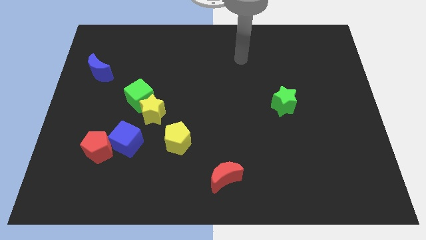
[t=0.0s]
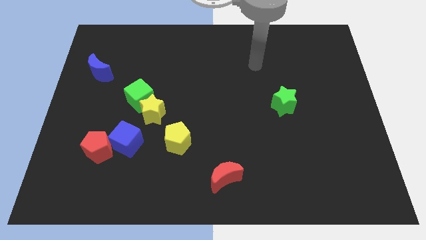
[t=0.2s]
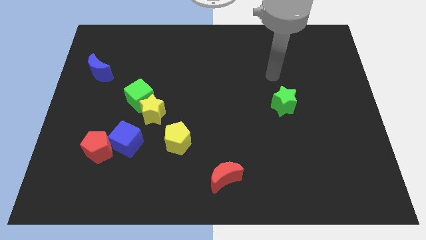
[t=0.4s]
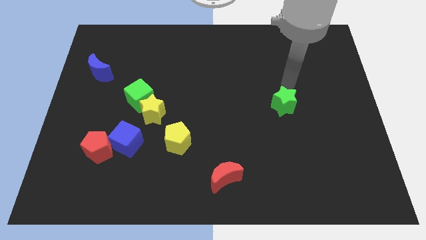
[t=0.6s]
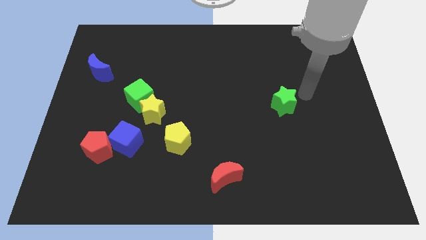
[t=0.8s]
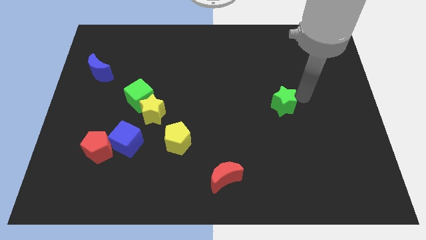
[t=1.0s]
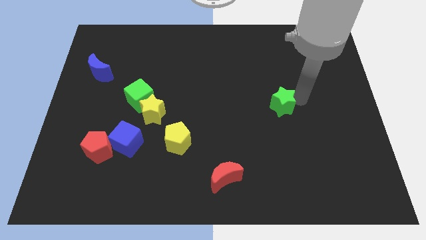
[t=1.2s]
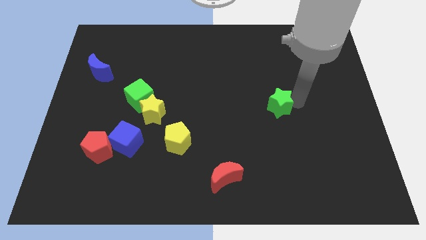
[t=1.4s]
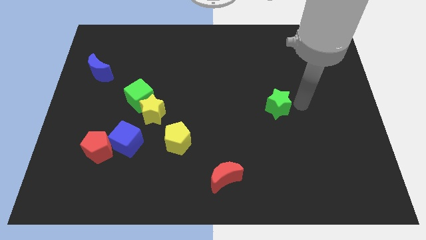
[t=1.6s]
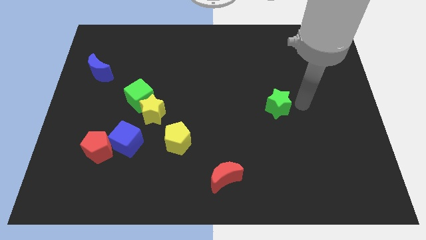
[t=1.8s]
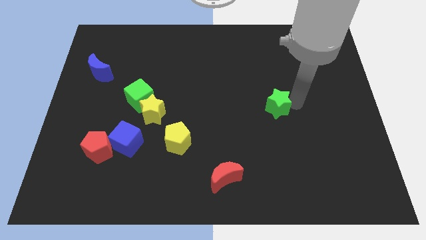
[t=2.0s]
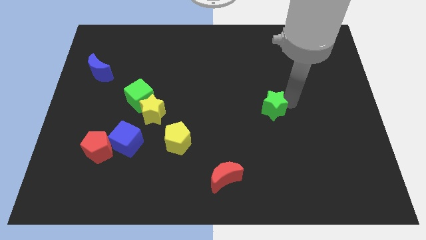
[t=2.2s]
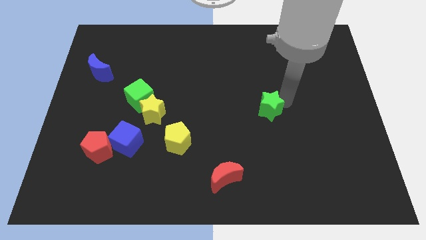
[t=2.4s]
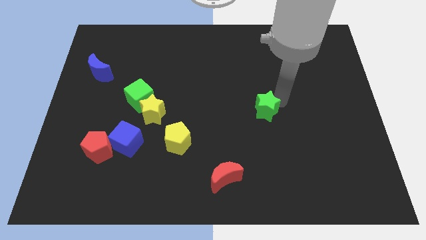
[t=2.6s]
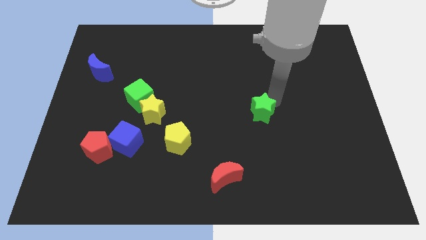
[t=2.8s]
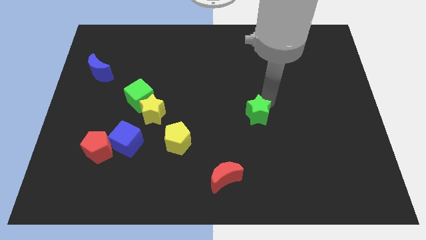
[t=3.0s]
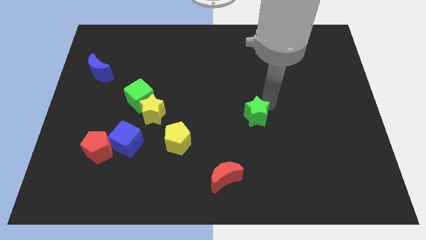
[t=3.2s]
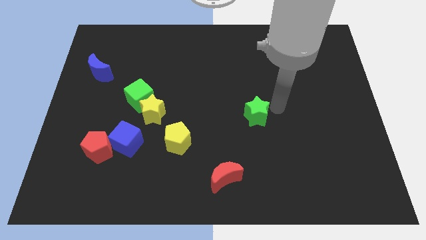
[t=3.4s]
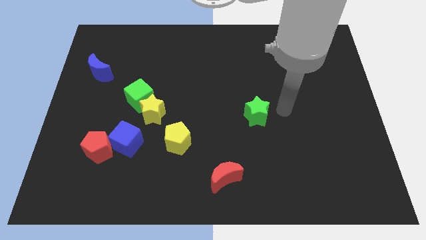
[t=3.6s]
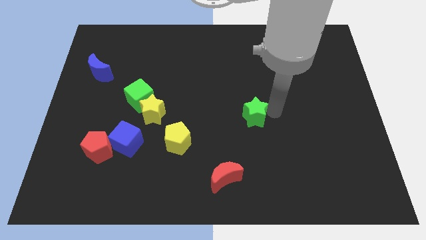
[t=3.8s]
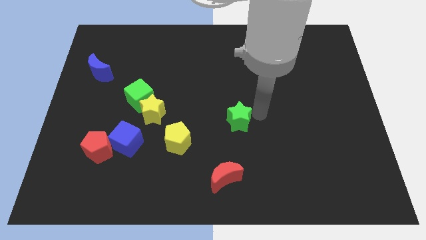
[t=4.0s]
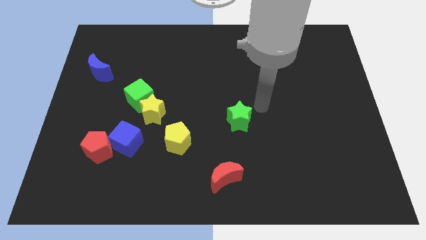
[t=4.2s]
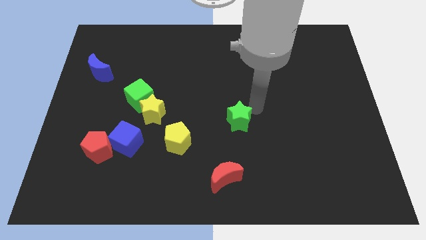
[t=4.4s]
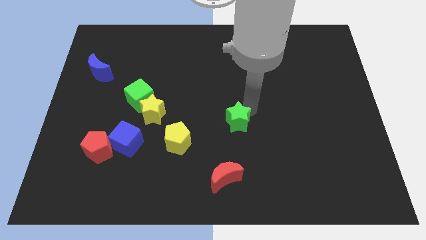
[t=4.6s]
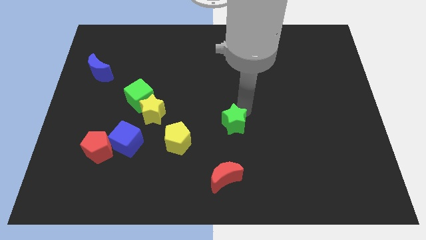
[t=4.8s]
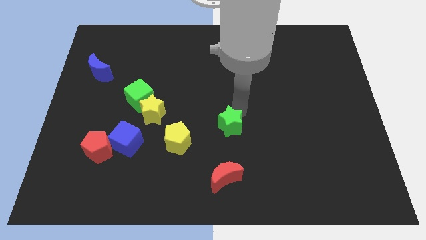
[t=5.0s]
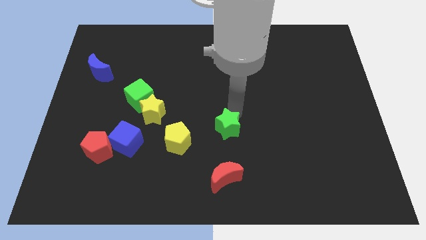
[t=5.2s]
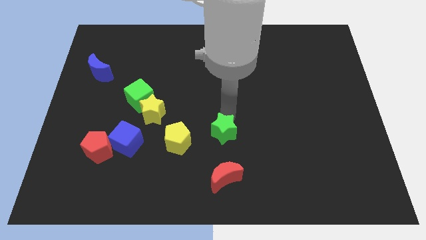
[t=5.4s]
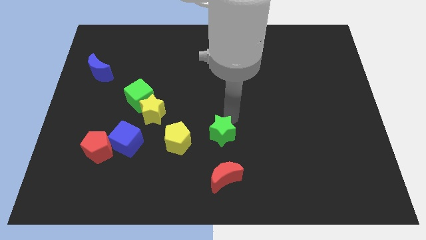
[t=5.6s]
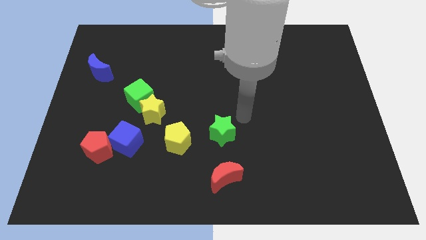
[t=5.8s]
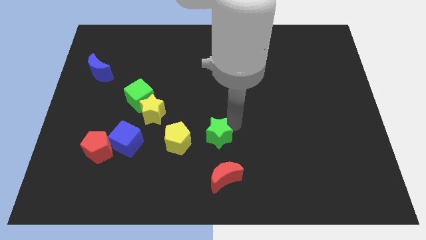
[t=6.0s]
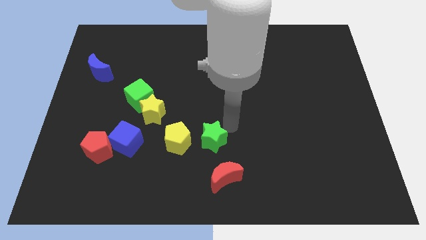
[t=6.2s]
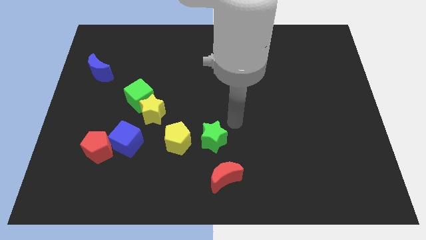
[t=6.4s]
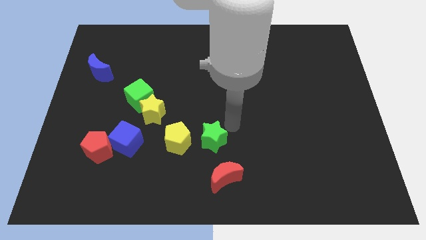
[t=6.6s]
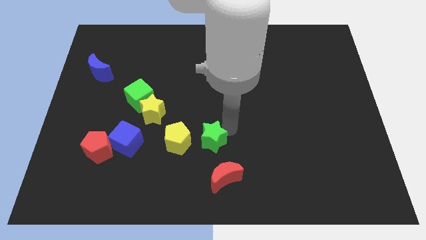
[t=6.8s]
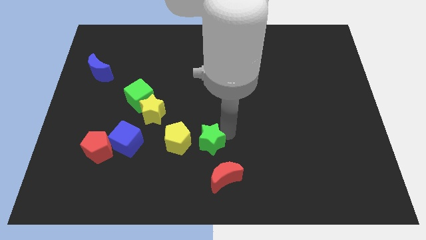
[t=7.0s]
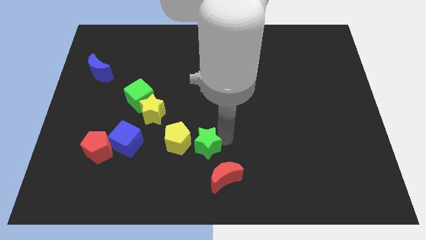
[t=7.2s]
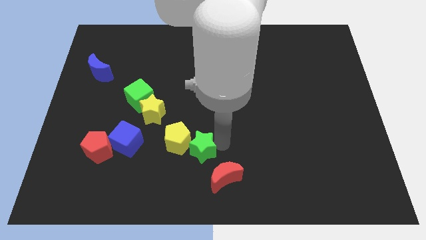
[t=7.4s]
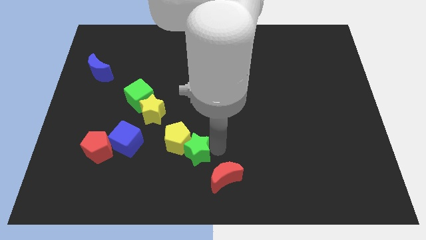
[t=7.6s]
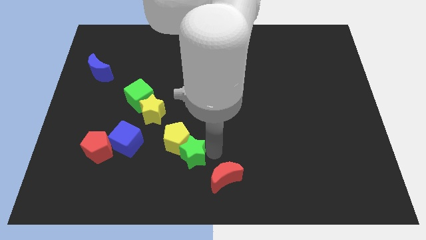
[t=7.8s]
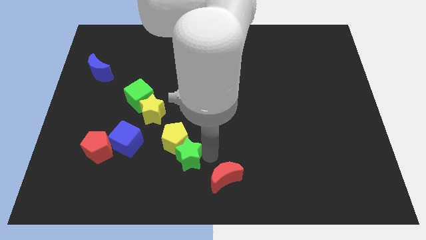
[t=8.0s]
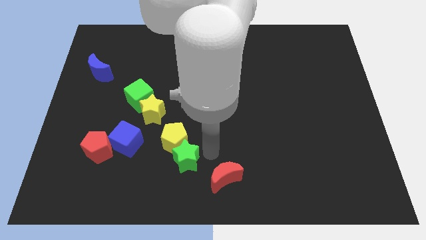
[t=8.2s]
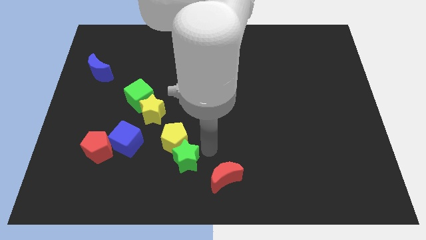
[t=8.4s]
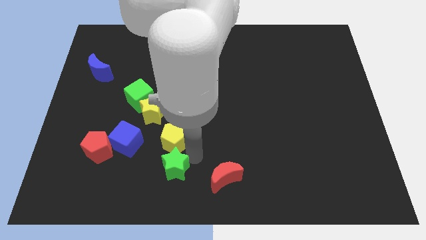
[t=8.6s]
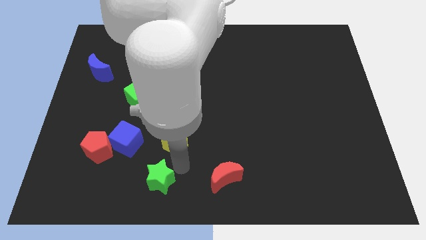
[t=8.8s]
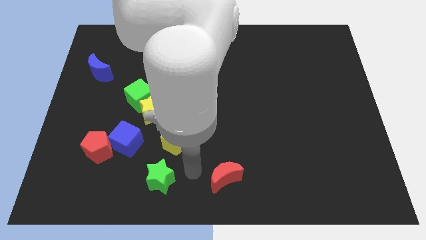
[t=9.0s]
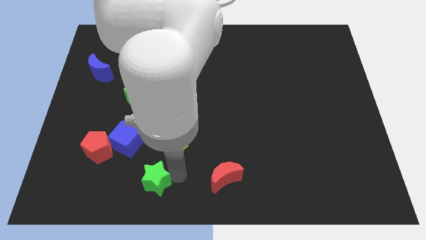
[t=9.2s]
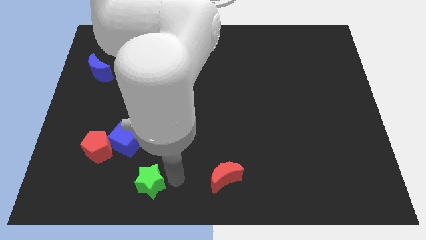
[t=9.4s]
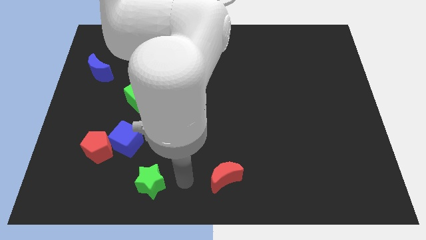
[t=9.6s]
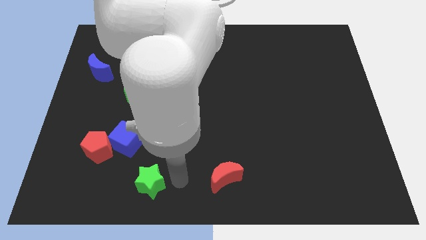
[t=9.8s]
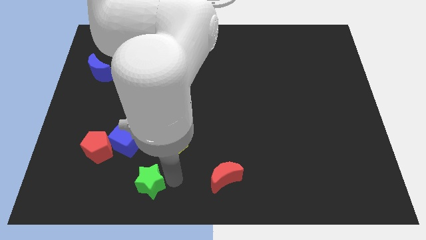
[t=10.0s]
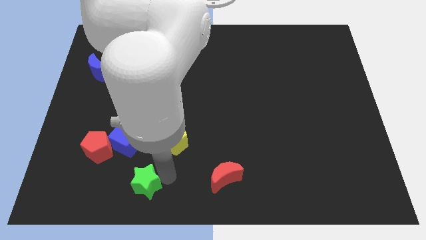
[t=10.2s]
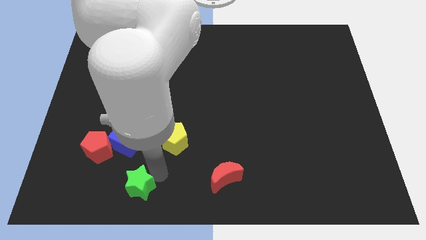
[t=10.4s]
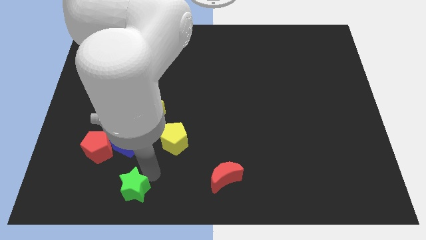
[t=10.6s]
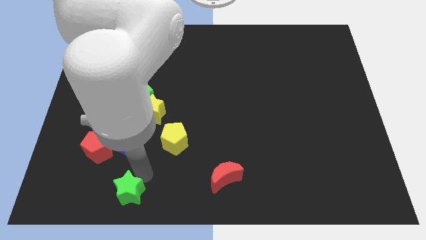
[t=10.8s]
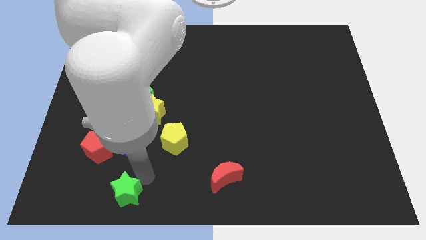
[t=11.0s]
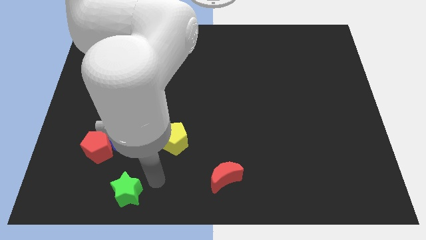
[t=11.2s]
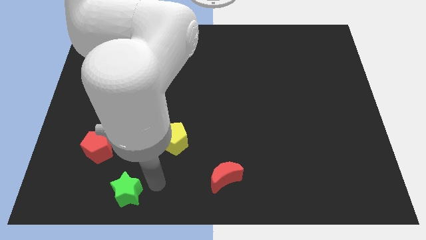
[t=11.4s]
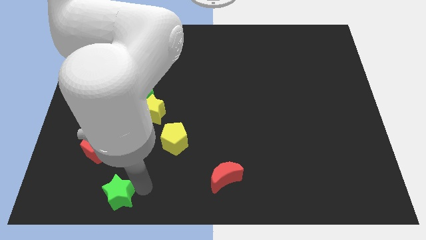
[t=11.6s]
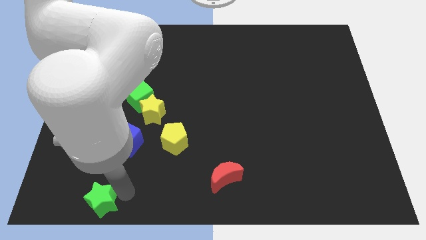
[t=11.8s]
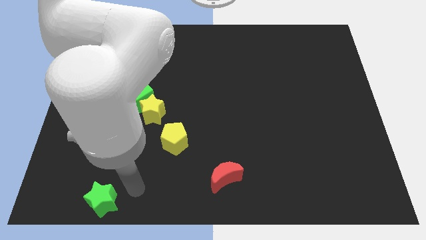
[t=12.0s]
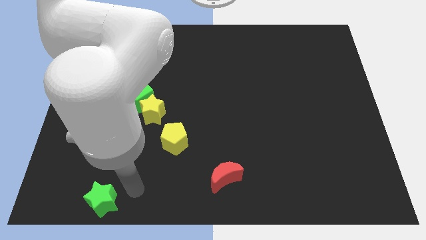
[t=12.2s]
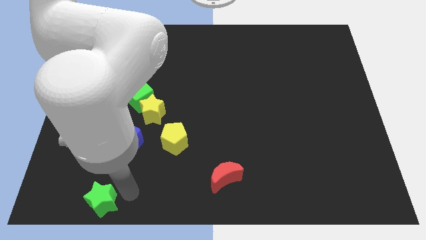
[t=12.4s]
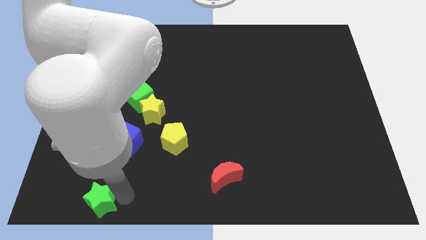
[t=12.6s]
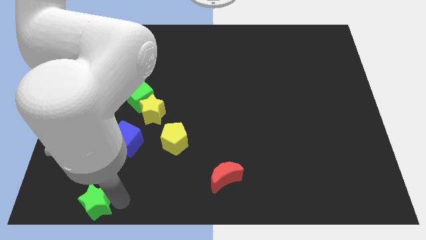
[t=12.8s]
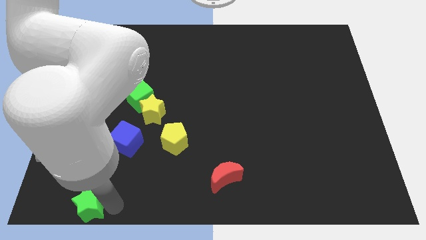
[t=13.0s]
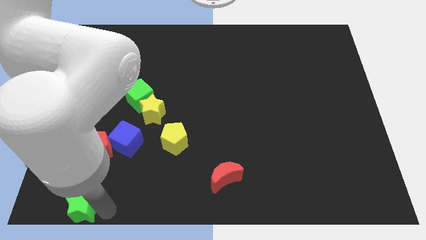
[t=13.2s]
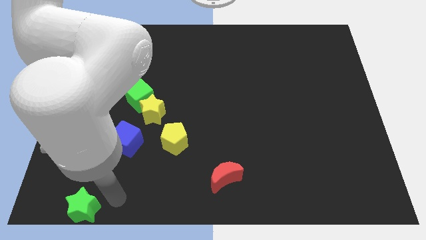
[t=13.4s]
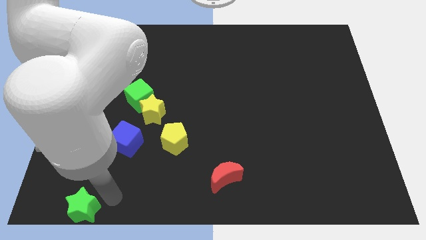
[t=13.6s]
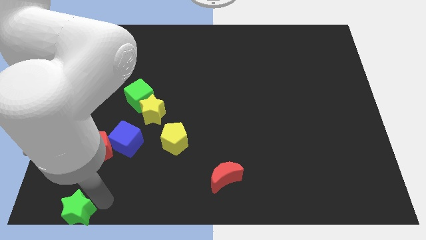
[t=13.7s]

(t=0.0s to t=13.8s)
put the green star to the bottom left
